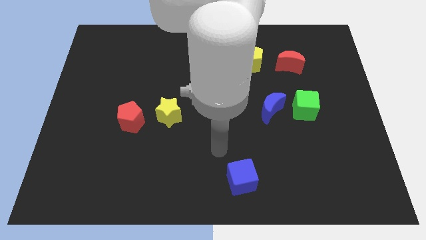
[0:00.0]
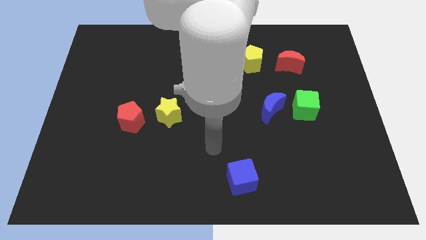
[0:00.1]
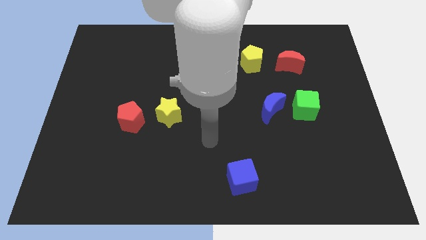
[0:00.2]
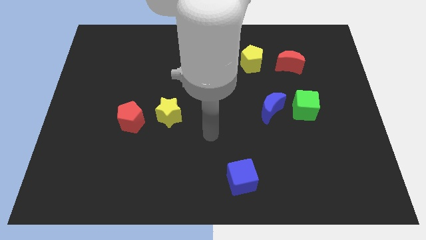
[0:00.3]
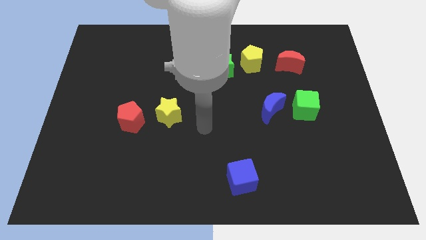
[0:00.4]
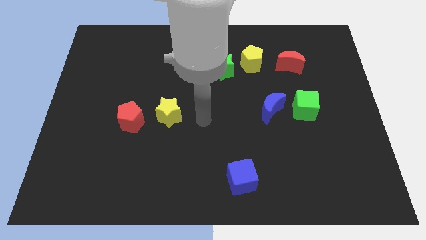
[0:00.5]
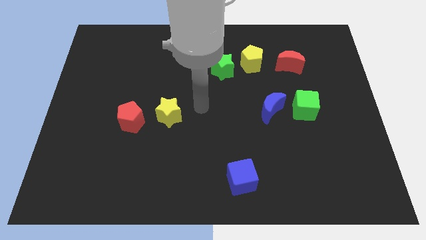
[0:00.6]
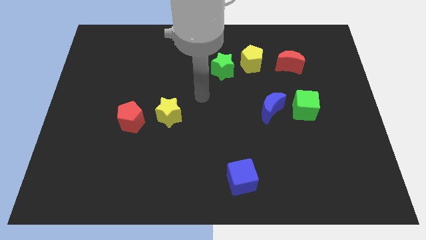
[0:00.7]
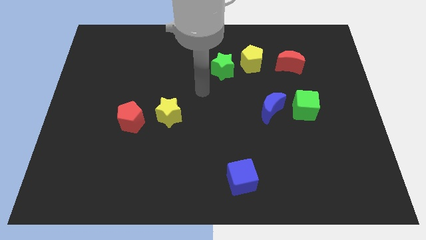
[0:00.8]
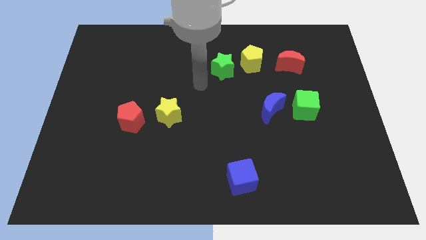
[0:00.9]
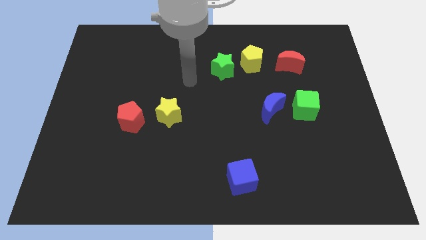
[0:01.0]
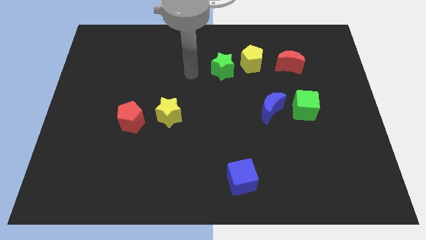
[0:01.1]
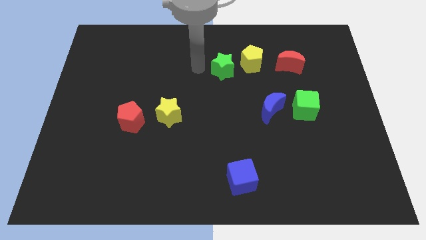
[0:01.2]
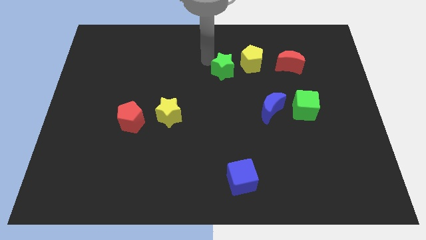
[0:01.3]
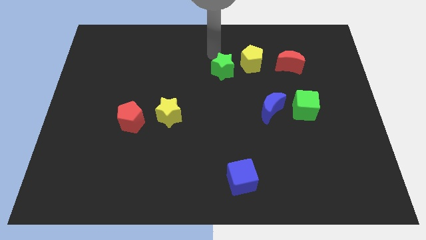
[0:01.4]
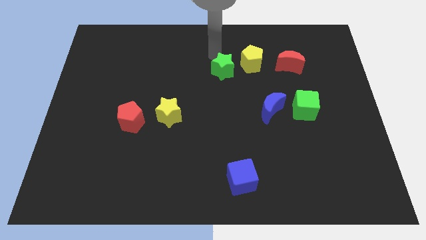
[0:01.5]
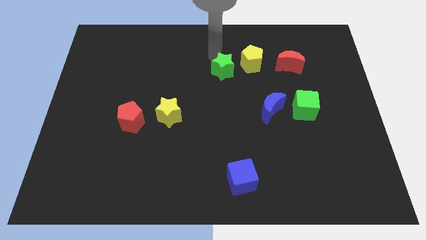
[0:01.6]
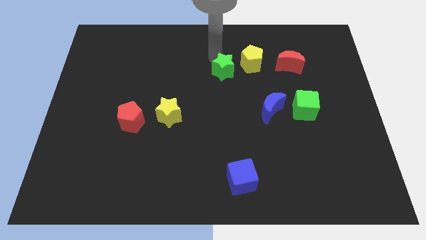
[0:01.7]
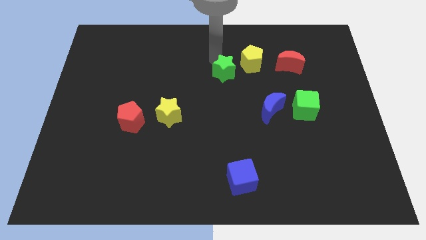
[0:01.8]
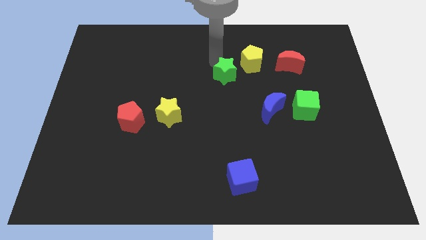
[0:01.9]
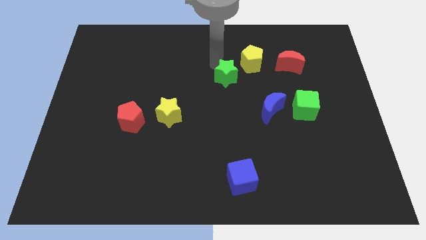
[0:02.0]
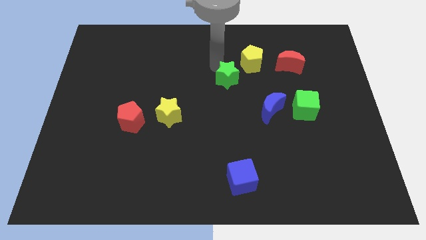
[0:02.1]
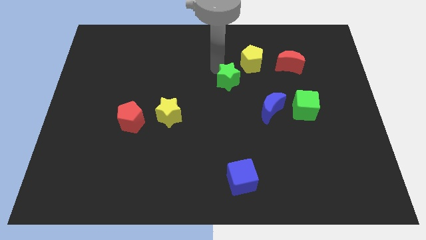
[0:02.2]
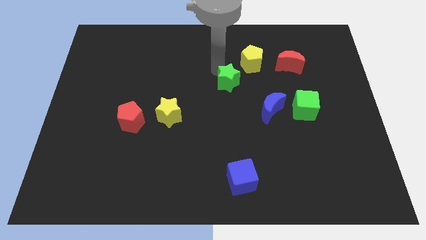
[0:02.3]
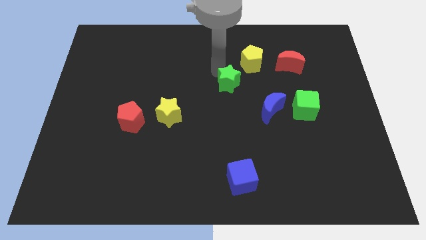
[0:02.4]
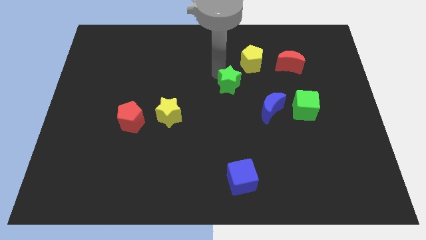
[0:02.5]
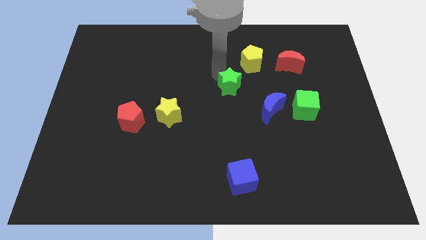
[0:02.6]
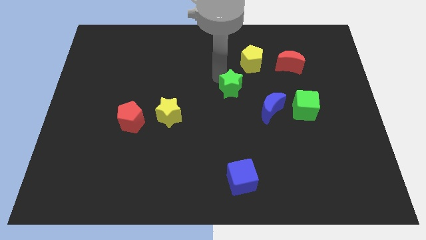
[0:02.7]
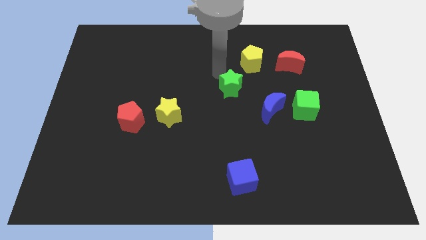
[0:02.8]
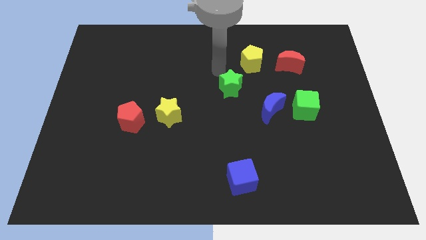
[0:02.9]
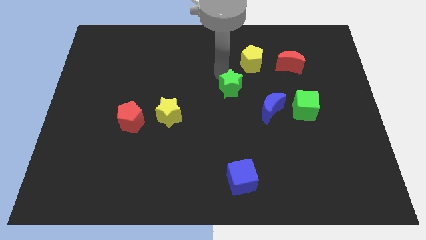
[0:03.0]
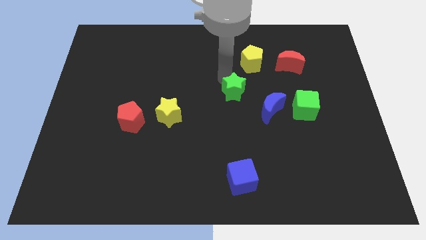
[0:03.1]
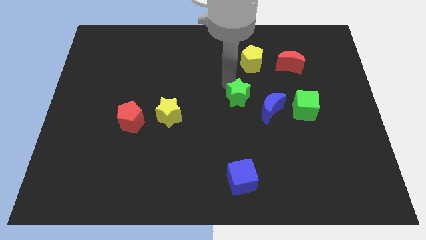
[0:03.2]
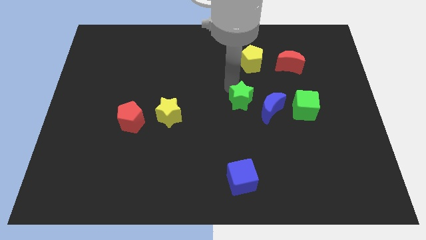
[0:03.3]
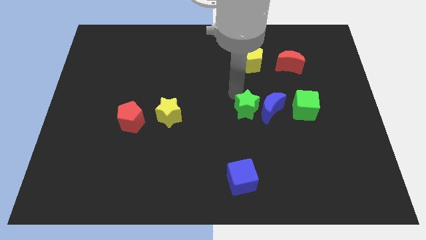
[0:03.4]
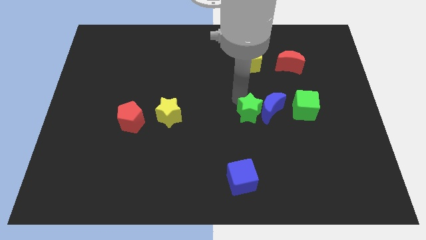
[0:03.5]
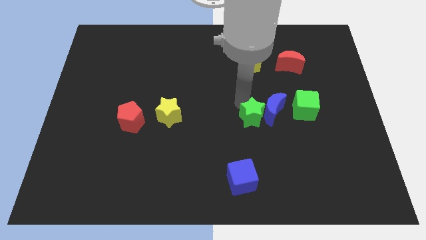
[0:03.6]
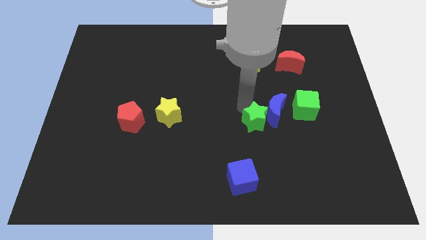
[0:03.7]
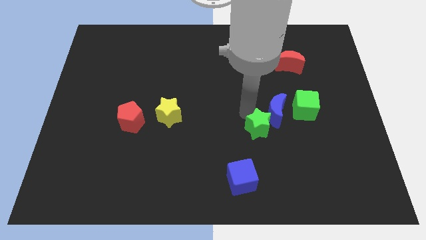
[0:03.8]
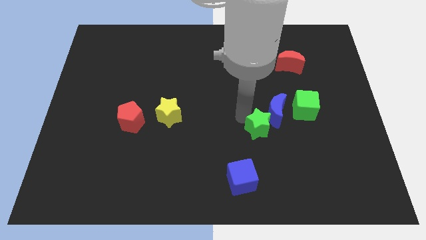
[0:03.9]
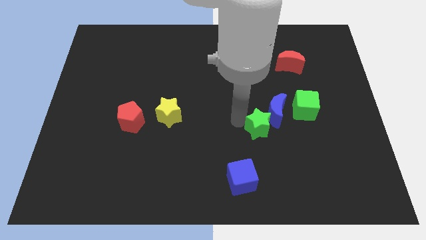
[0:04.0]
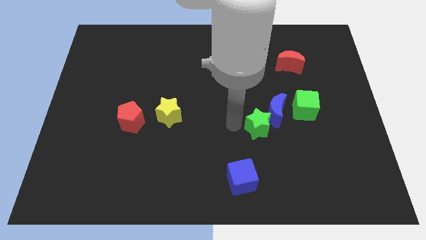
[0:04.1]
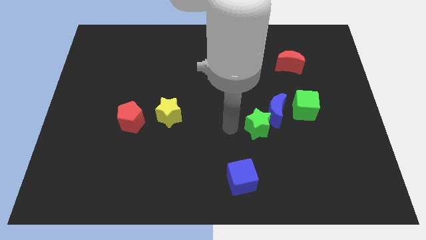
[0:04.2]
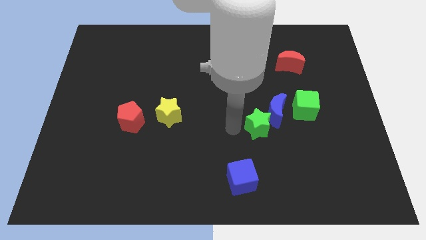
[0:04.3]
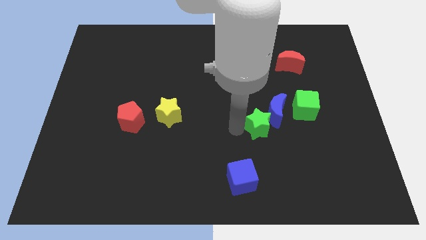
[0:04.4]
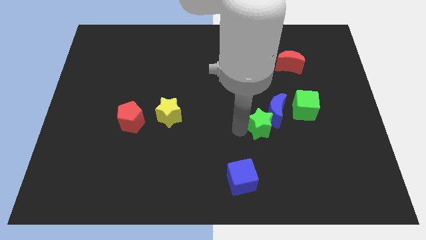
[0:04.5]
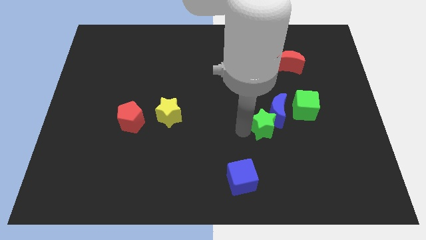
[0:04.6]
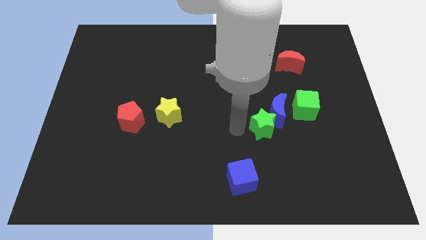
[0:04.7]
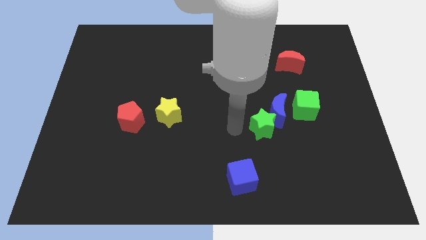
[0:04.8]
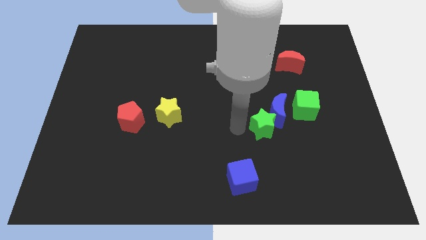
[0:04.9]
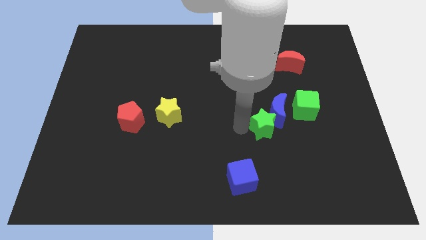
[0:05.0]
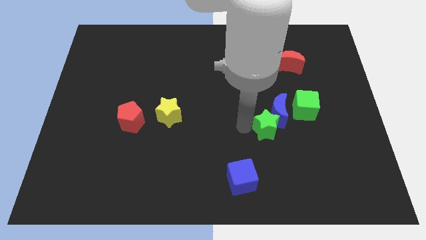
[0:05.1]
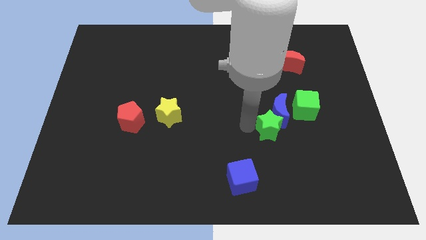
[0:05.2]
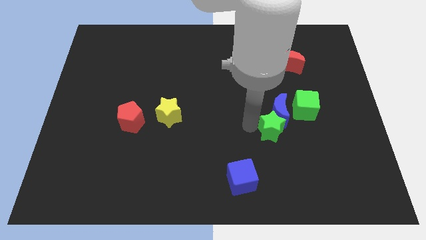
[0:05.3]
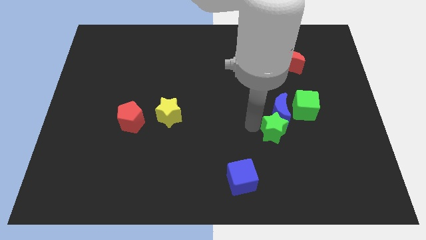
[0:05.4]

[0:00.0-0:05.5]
slide the green star downwards and right diagonally

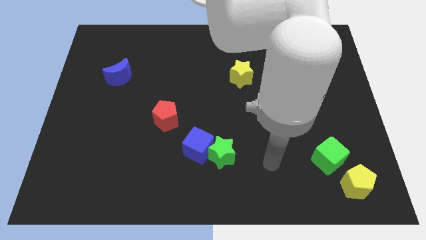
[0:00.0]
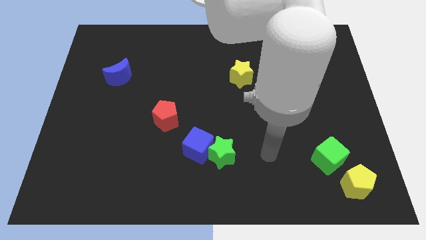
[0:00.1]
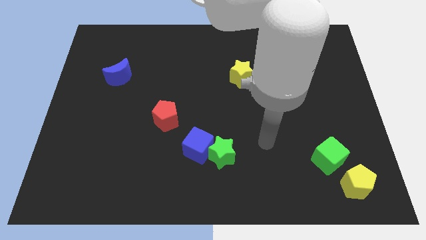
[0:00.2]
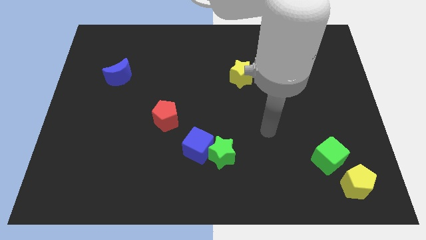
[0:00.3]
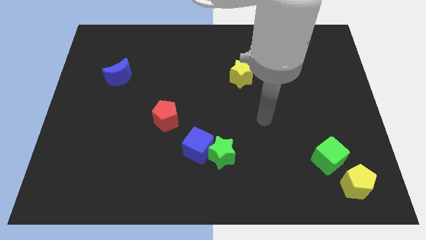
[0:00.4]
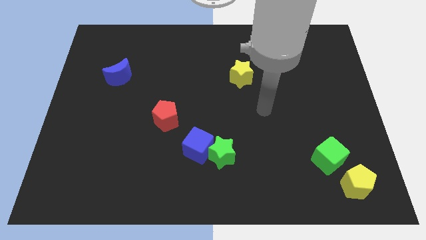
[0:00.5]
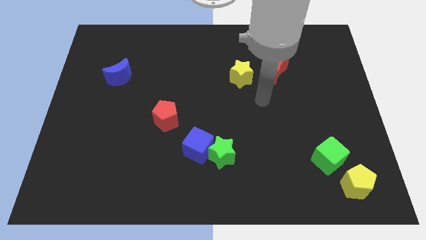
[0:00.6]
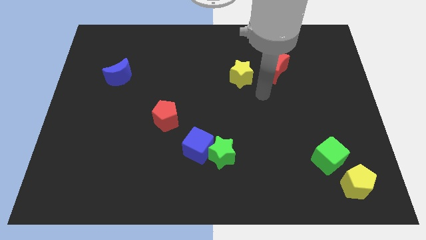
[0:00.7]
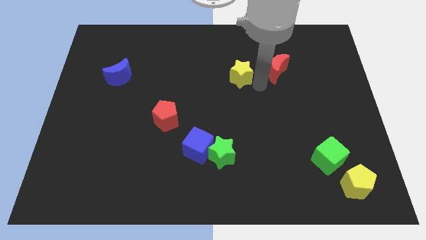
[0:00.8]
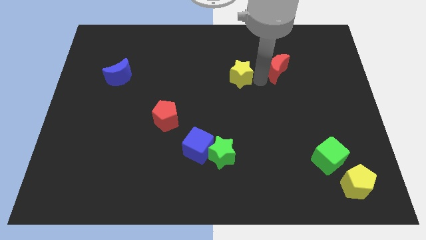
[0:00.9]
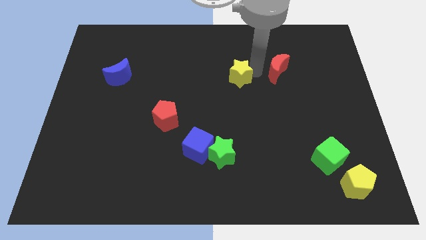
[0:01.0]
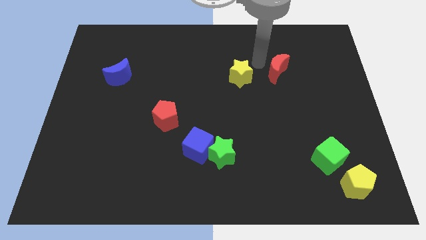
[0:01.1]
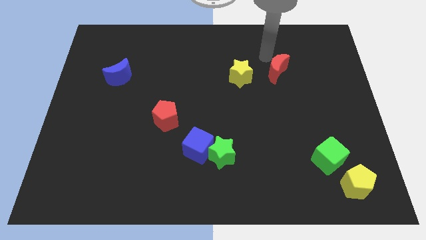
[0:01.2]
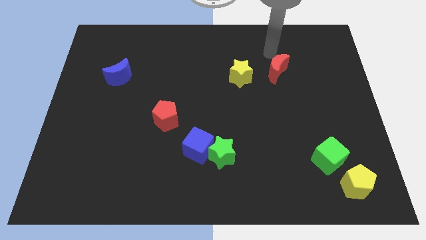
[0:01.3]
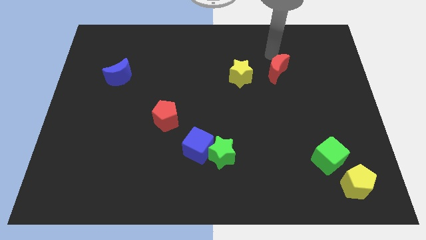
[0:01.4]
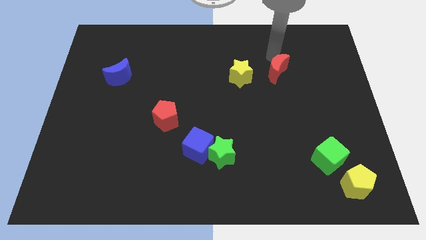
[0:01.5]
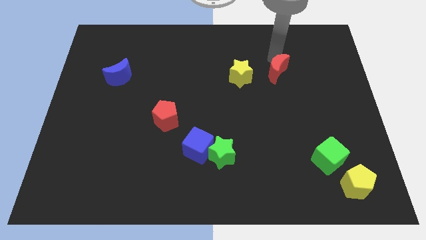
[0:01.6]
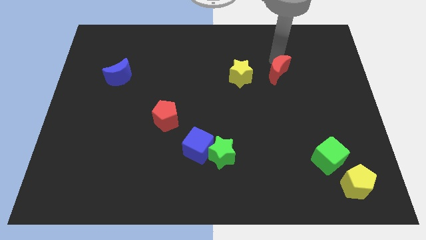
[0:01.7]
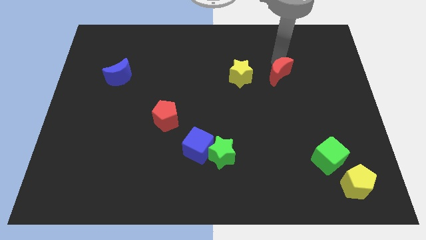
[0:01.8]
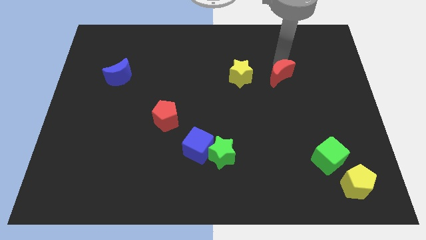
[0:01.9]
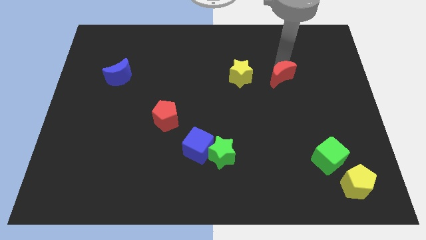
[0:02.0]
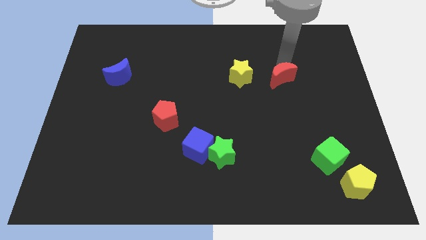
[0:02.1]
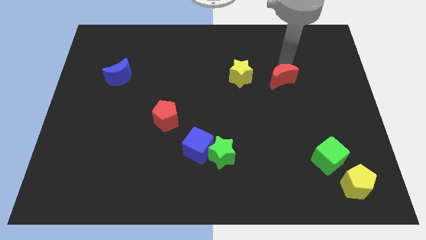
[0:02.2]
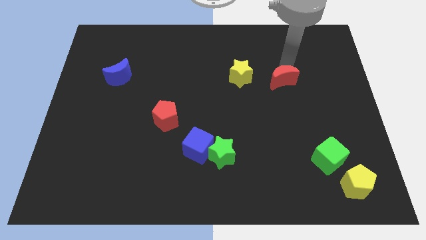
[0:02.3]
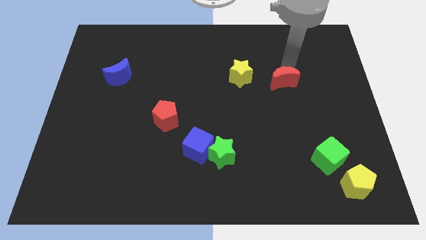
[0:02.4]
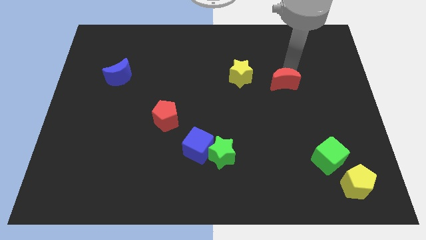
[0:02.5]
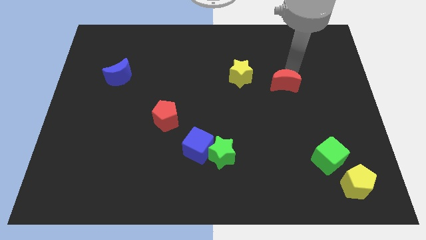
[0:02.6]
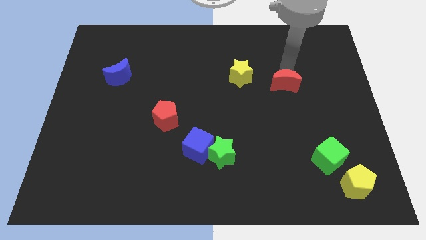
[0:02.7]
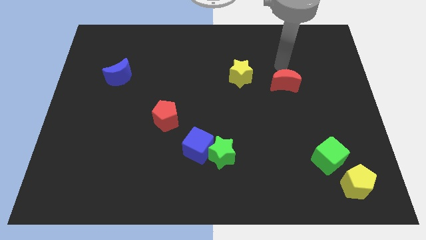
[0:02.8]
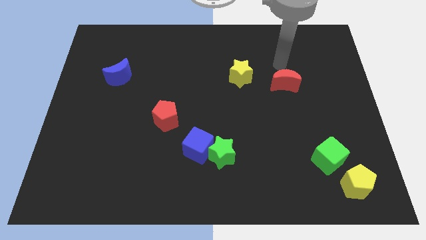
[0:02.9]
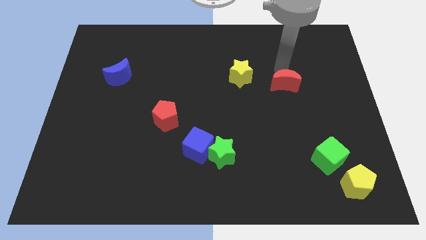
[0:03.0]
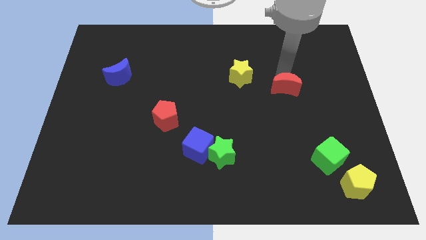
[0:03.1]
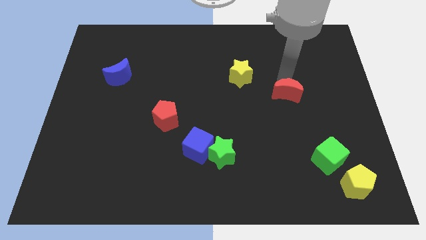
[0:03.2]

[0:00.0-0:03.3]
push the red moon downwards slightly
